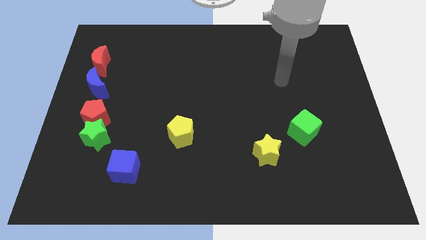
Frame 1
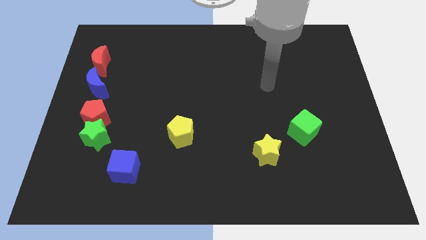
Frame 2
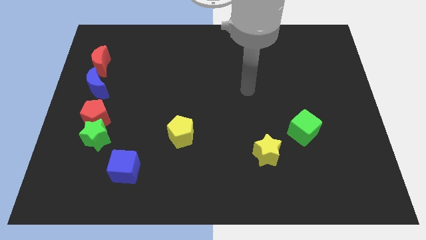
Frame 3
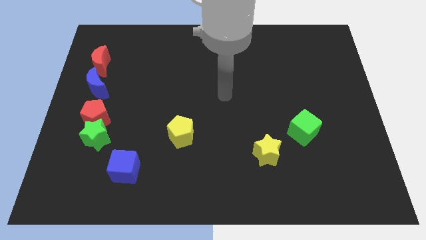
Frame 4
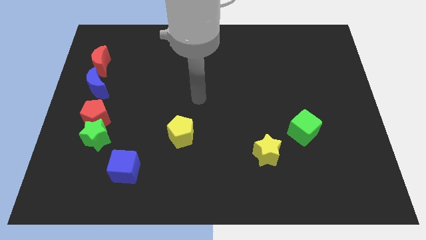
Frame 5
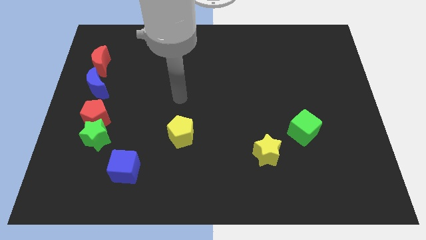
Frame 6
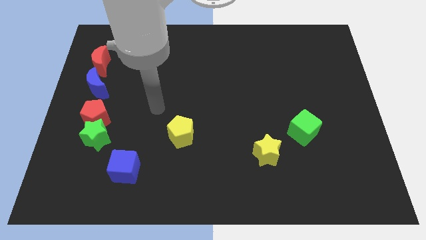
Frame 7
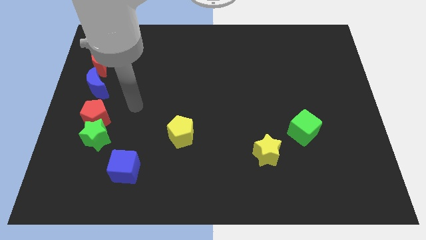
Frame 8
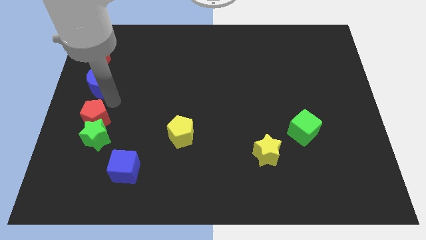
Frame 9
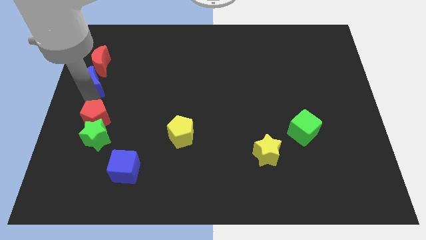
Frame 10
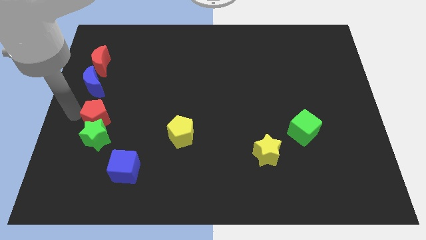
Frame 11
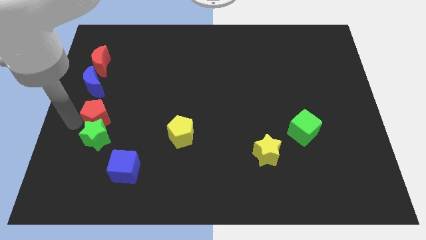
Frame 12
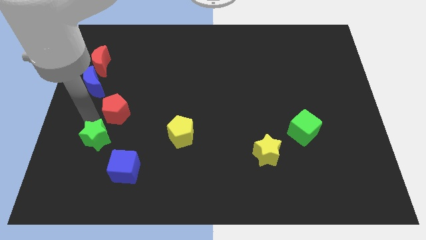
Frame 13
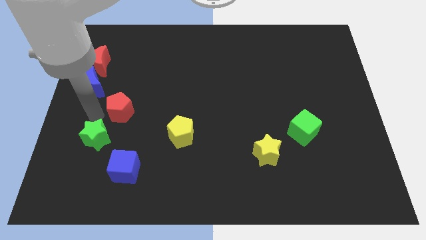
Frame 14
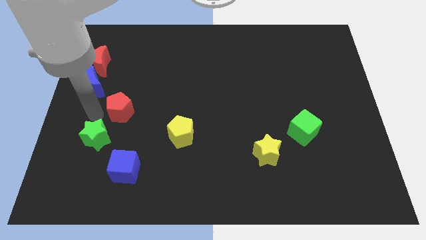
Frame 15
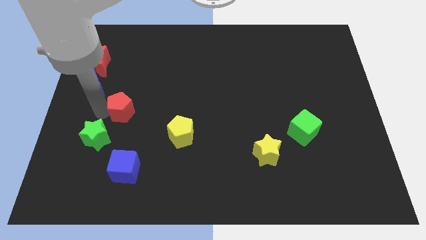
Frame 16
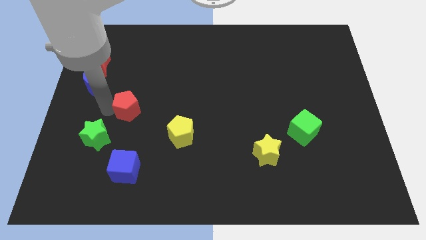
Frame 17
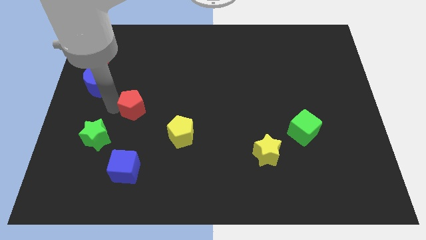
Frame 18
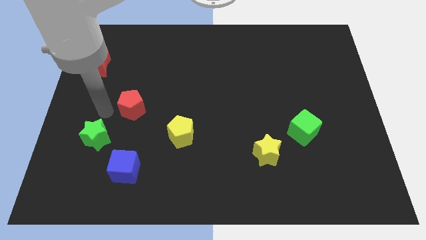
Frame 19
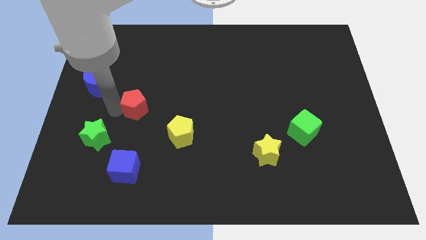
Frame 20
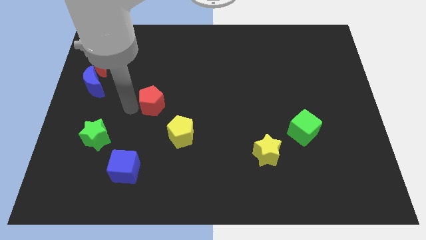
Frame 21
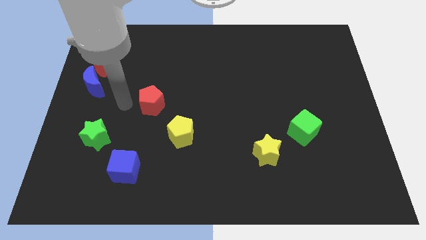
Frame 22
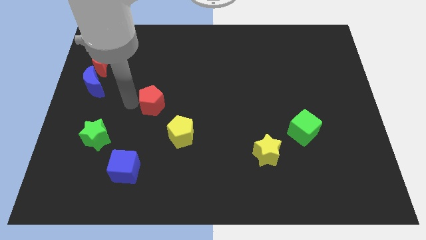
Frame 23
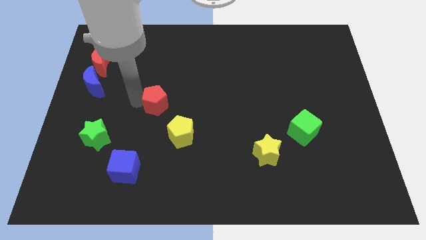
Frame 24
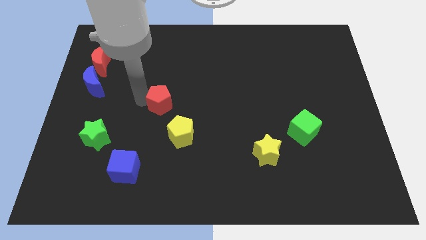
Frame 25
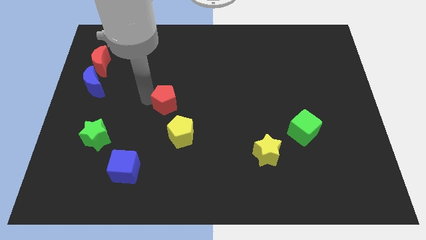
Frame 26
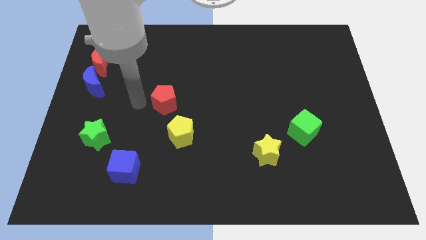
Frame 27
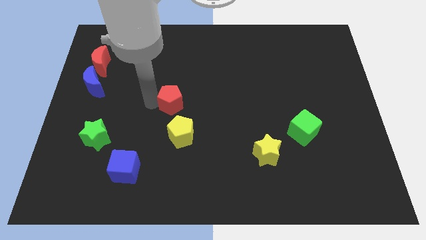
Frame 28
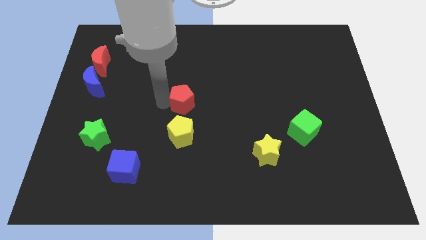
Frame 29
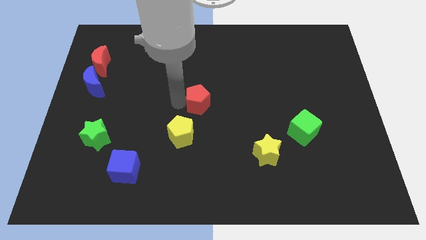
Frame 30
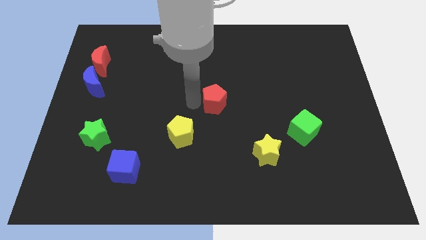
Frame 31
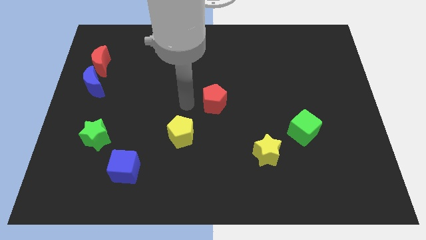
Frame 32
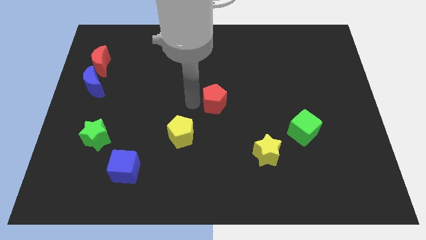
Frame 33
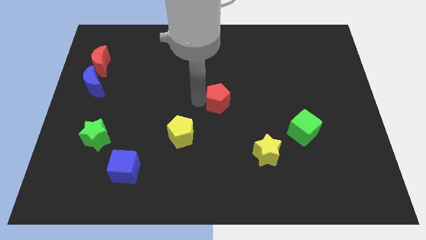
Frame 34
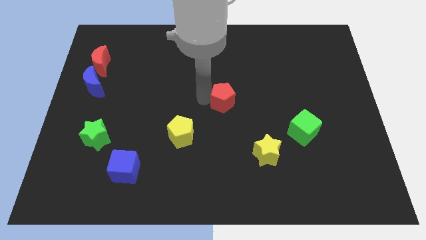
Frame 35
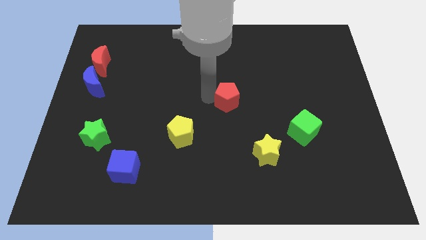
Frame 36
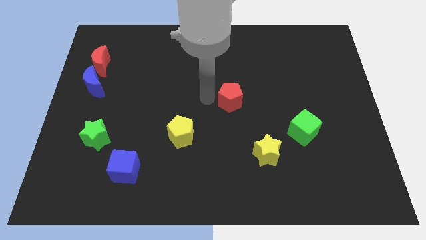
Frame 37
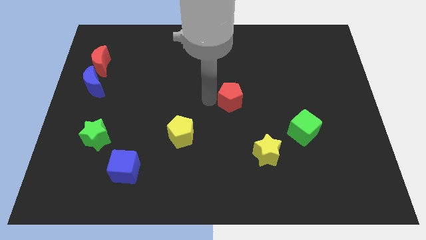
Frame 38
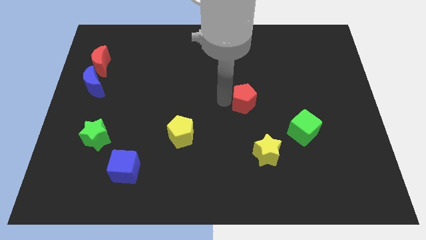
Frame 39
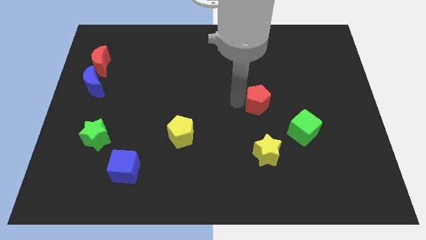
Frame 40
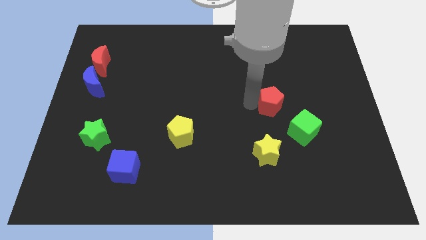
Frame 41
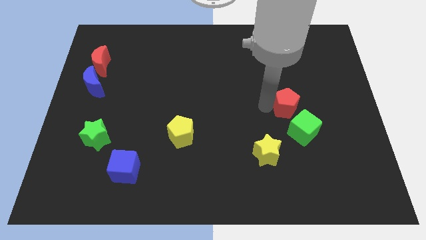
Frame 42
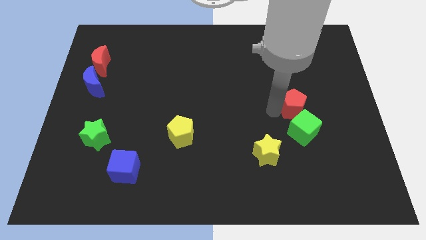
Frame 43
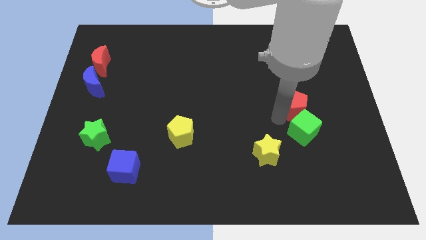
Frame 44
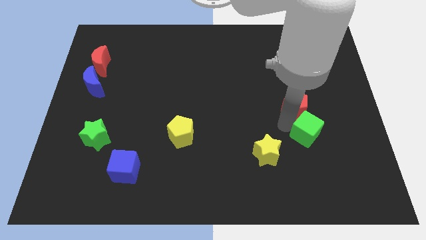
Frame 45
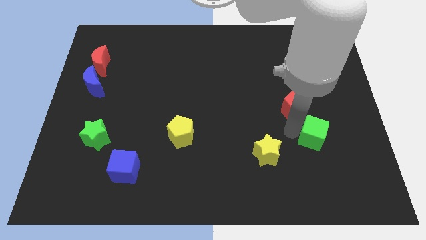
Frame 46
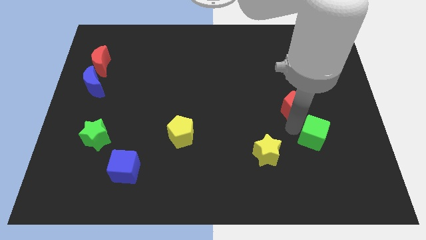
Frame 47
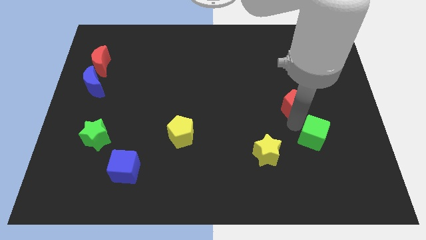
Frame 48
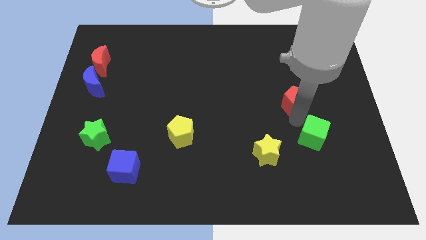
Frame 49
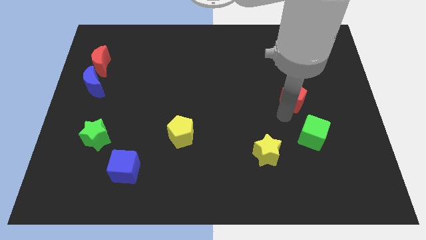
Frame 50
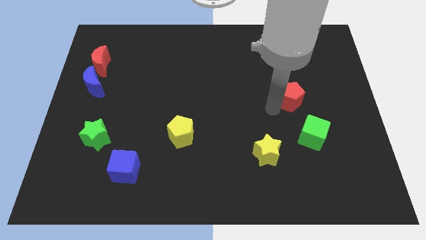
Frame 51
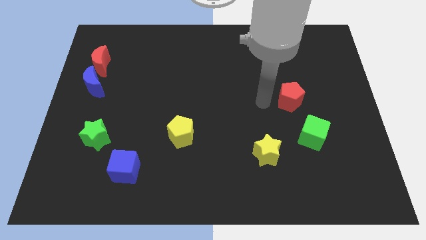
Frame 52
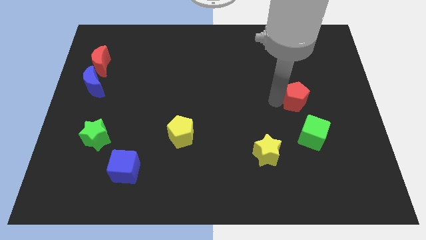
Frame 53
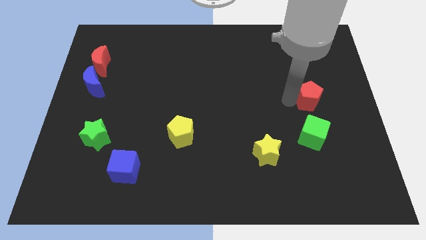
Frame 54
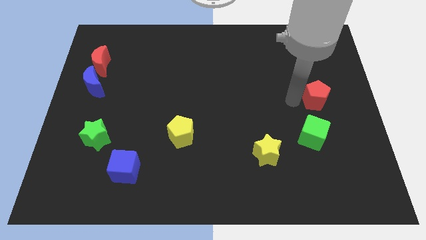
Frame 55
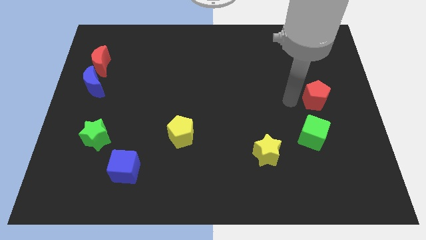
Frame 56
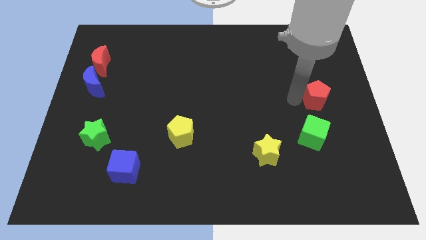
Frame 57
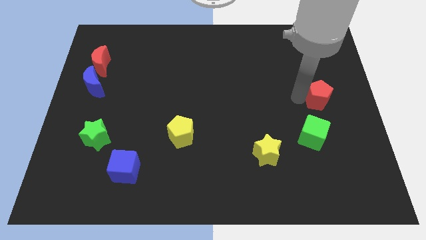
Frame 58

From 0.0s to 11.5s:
push the red pentagon to the right side of the board

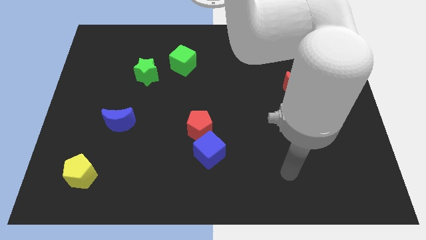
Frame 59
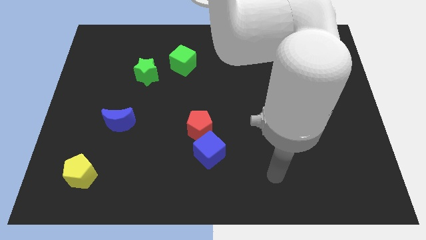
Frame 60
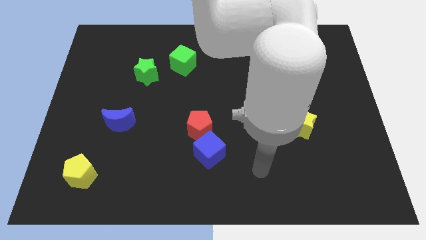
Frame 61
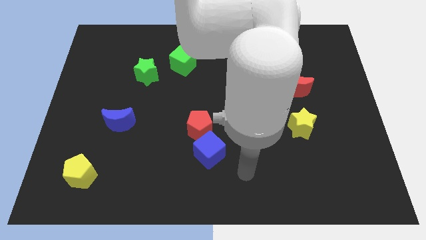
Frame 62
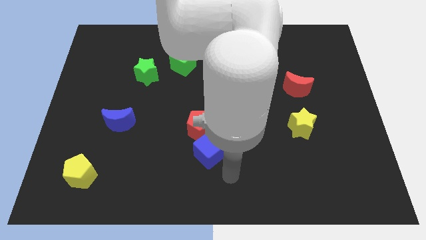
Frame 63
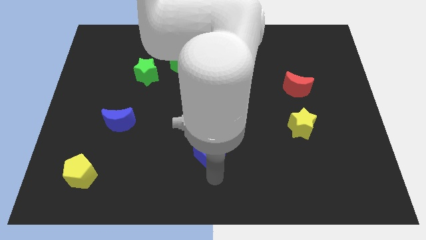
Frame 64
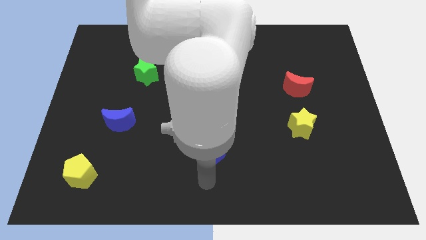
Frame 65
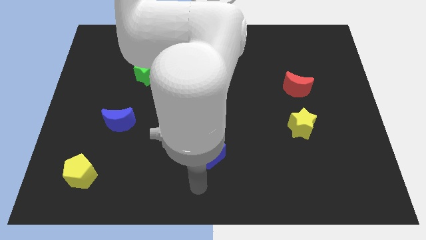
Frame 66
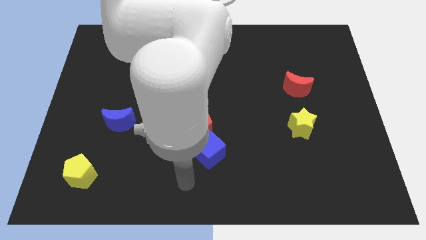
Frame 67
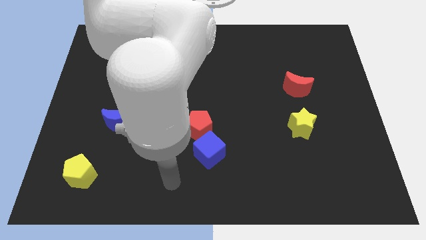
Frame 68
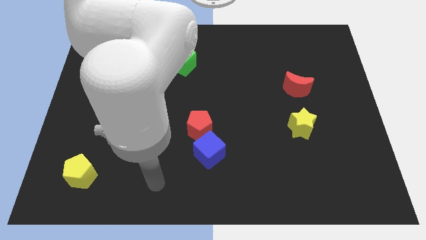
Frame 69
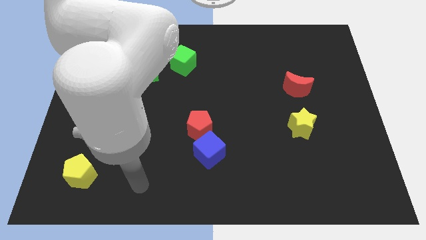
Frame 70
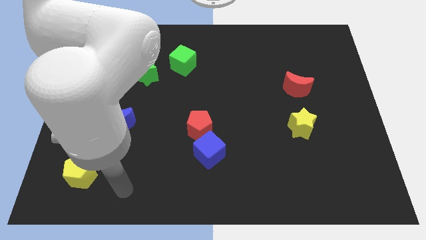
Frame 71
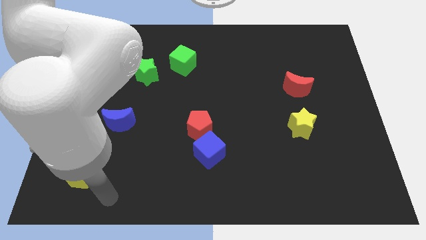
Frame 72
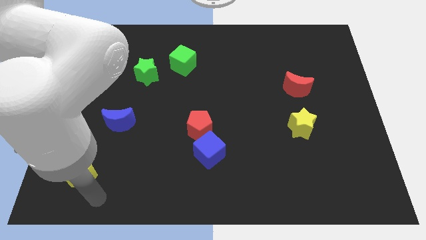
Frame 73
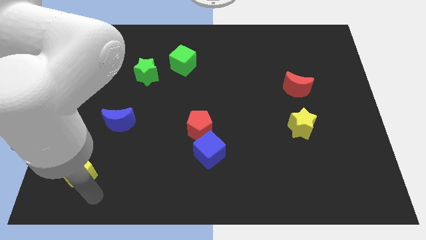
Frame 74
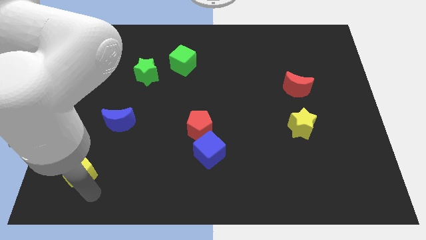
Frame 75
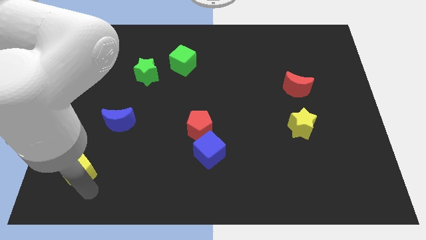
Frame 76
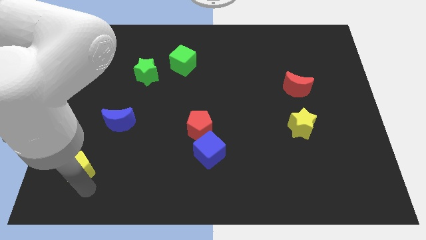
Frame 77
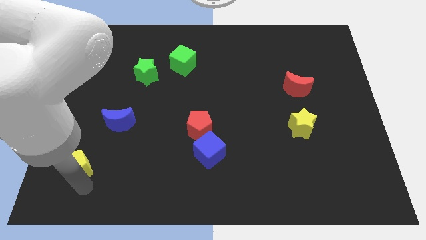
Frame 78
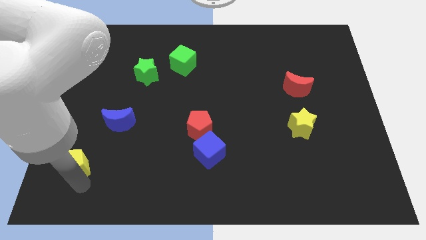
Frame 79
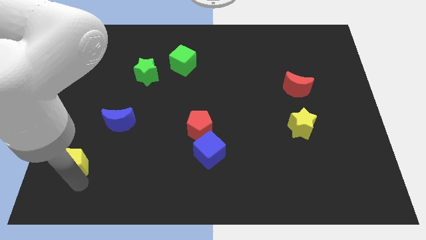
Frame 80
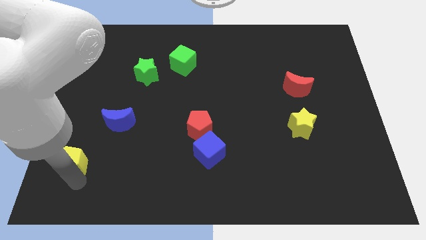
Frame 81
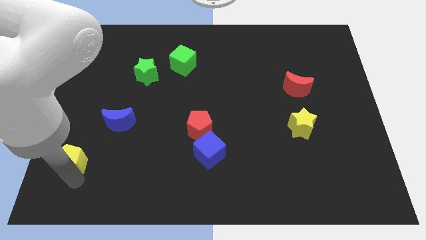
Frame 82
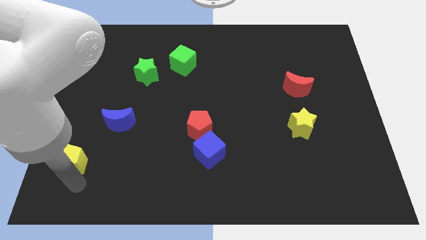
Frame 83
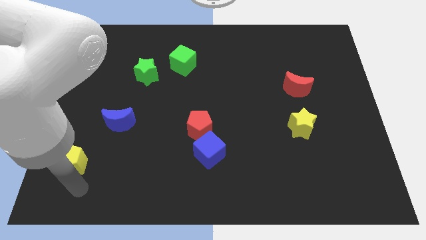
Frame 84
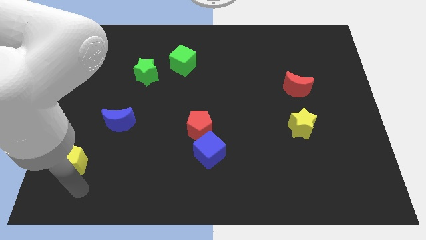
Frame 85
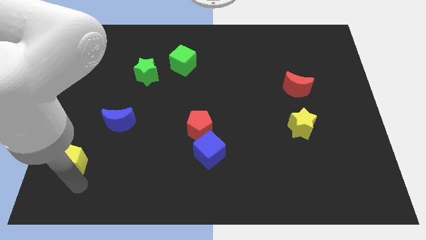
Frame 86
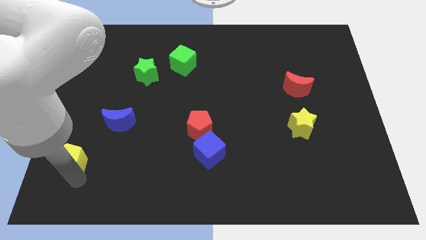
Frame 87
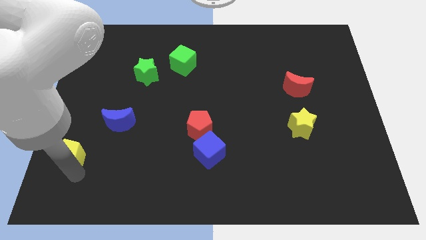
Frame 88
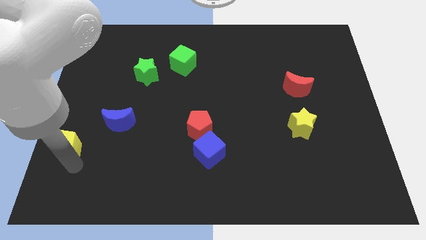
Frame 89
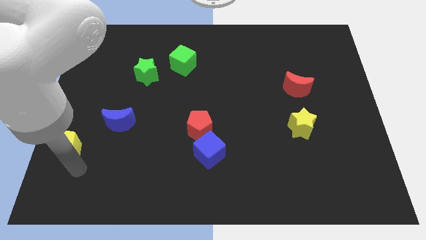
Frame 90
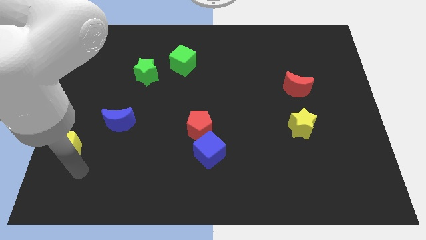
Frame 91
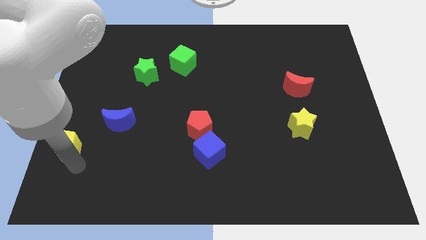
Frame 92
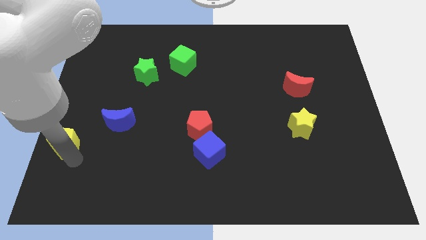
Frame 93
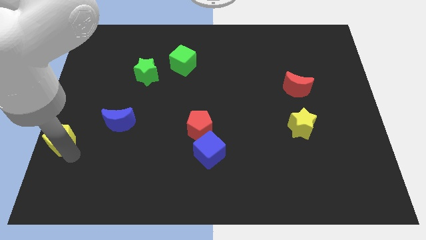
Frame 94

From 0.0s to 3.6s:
push the yellow pentagon to the left side
